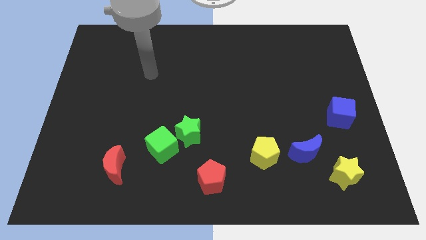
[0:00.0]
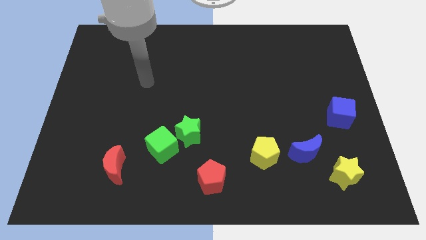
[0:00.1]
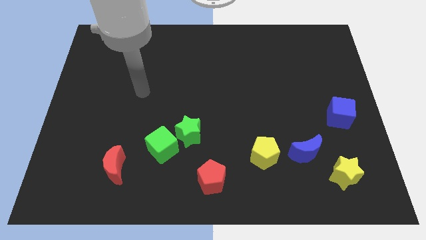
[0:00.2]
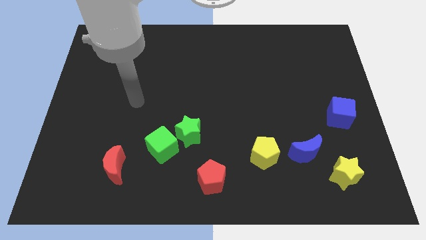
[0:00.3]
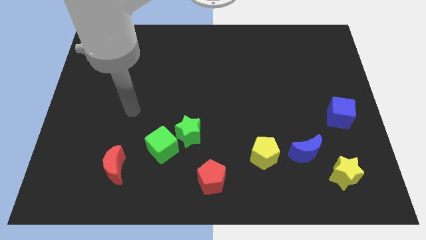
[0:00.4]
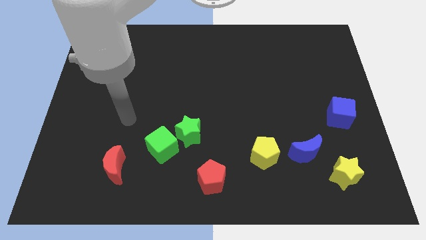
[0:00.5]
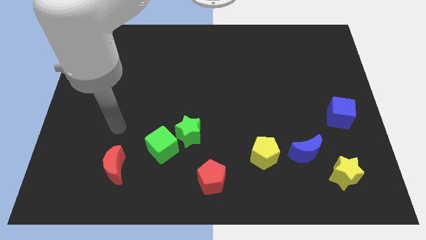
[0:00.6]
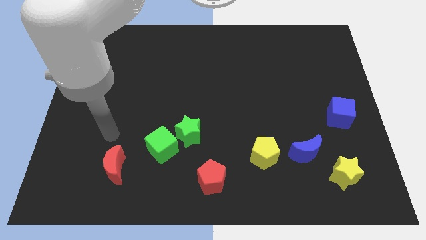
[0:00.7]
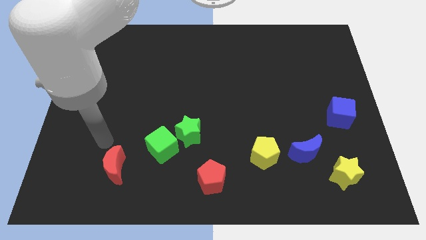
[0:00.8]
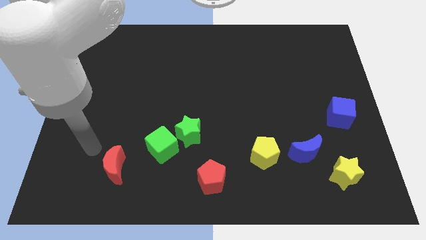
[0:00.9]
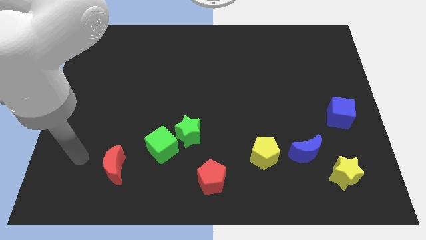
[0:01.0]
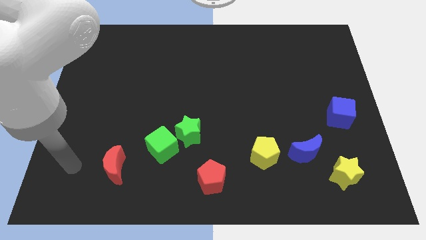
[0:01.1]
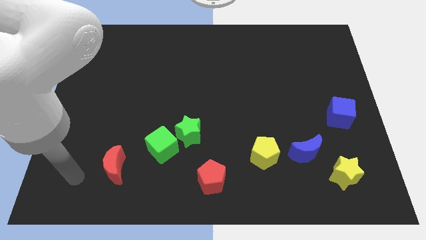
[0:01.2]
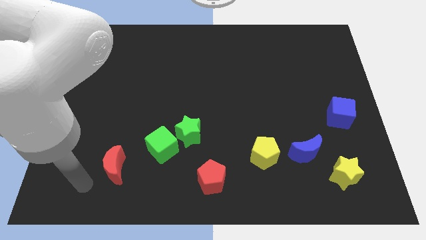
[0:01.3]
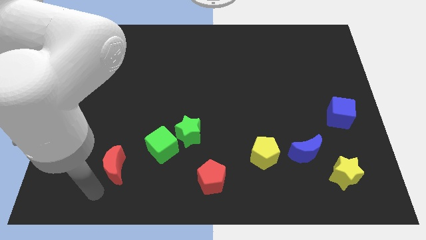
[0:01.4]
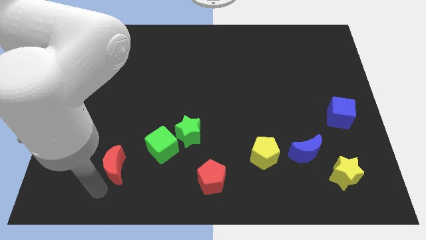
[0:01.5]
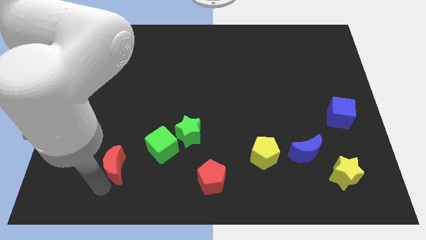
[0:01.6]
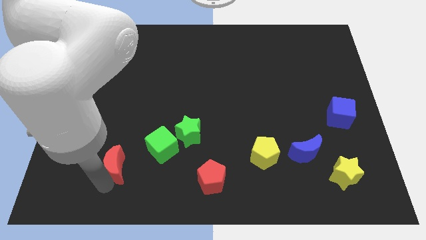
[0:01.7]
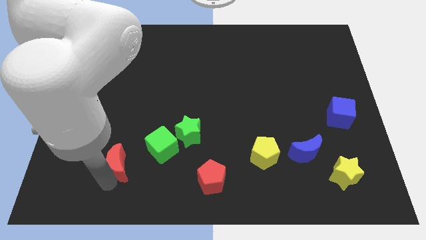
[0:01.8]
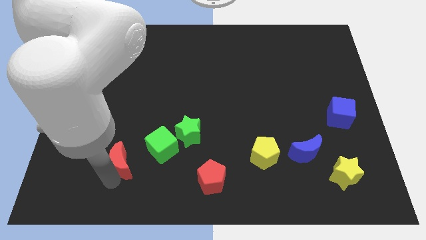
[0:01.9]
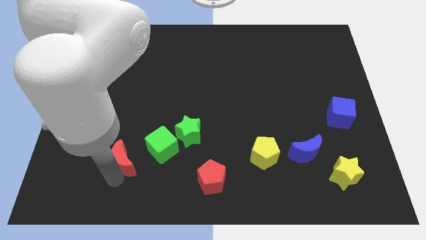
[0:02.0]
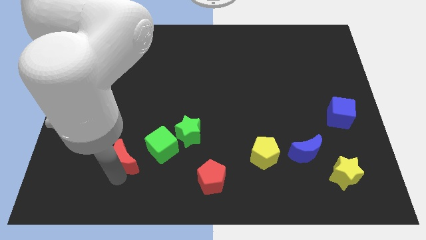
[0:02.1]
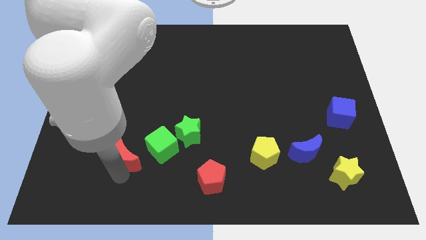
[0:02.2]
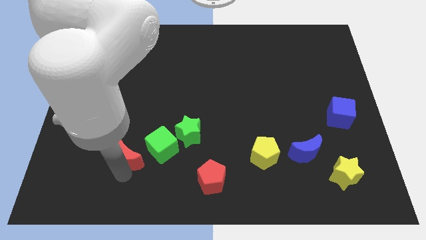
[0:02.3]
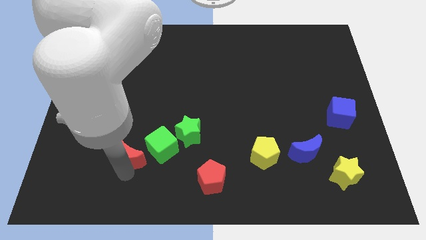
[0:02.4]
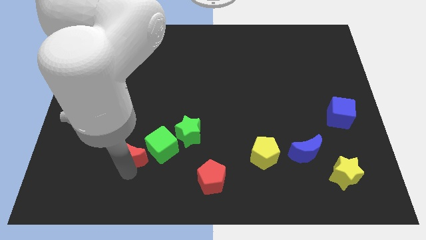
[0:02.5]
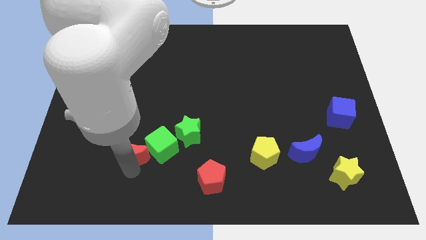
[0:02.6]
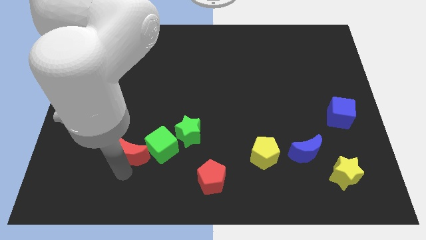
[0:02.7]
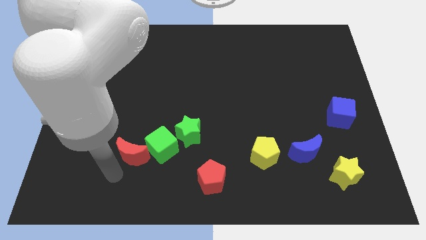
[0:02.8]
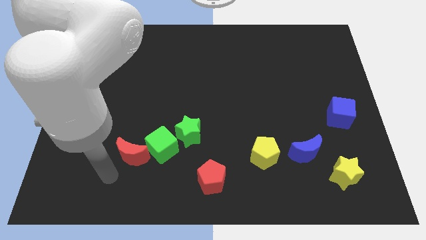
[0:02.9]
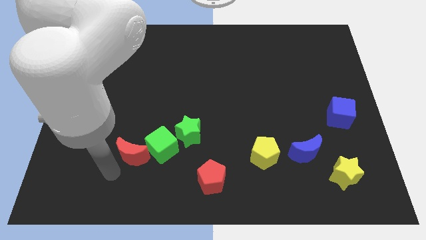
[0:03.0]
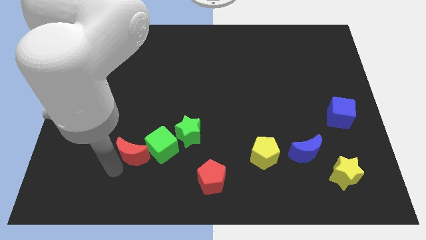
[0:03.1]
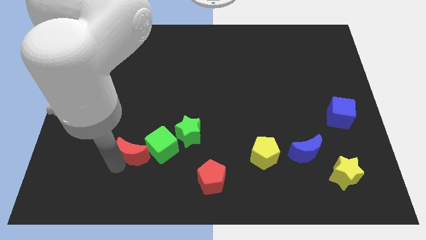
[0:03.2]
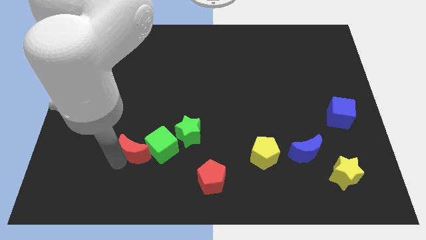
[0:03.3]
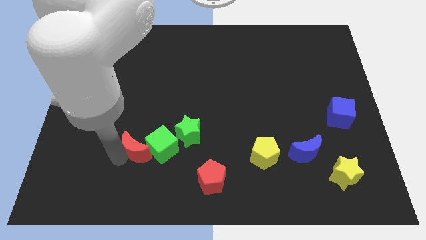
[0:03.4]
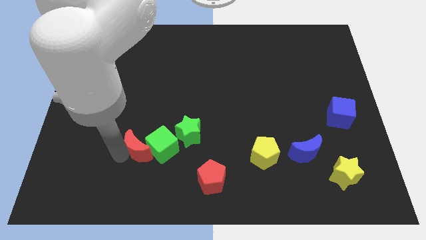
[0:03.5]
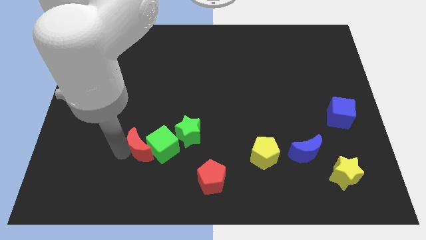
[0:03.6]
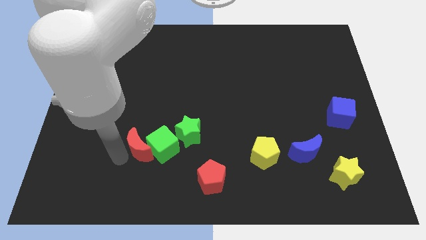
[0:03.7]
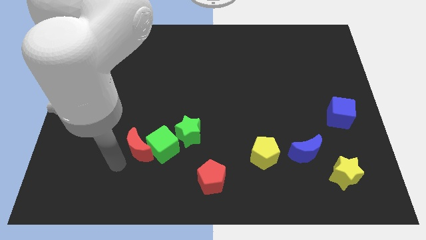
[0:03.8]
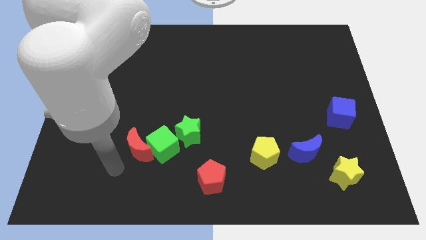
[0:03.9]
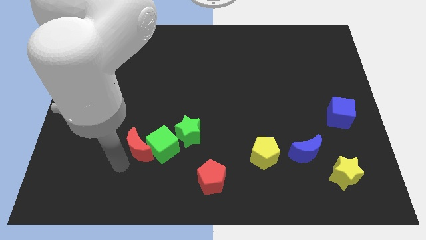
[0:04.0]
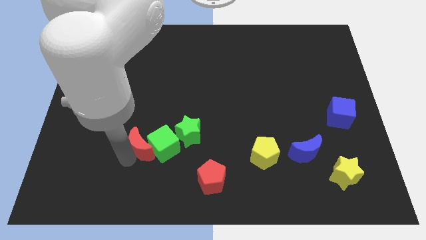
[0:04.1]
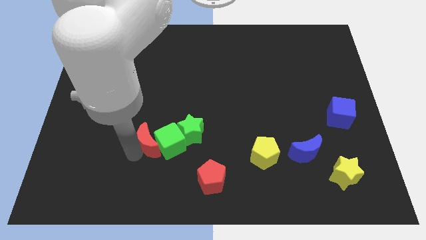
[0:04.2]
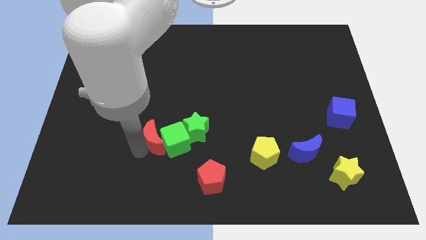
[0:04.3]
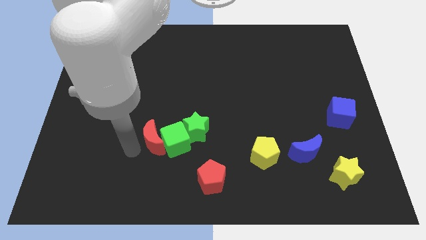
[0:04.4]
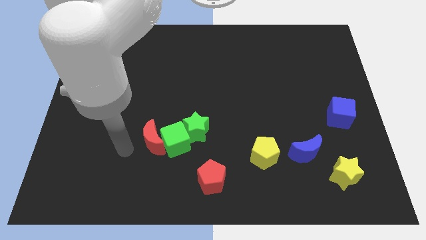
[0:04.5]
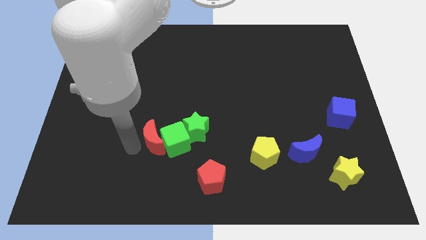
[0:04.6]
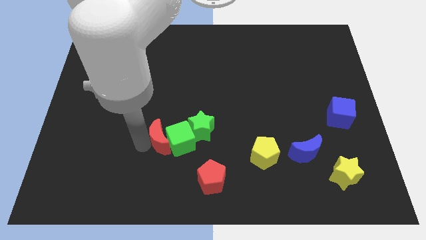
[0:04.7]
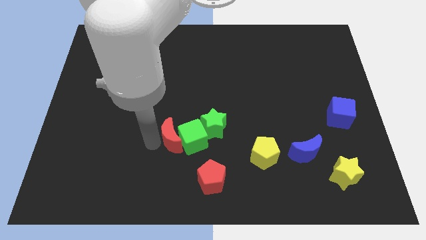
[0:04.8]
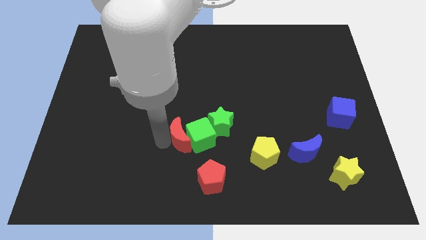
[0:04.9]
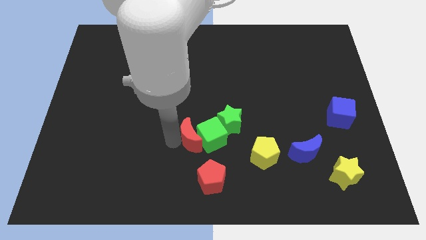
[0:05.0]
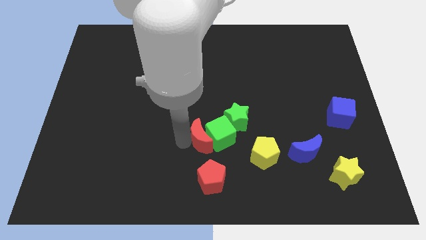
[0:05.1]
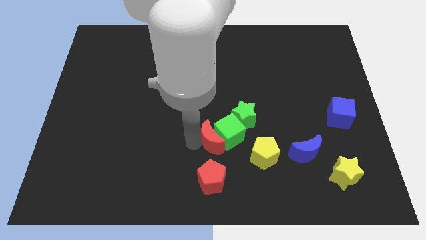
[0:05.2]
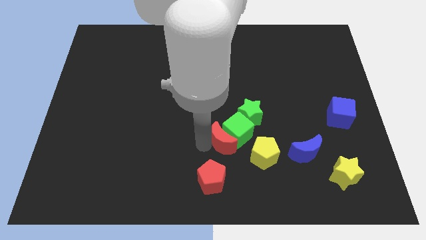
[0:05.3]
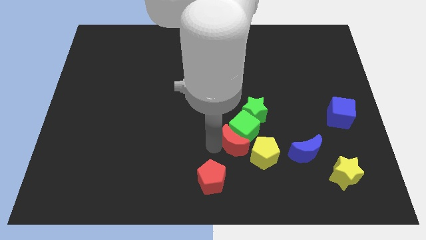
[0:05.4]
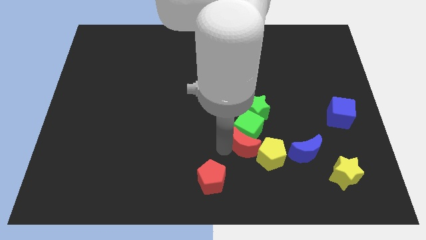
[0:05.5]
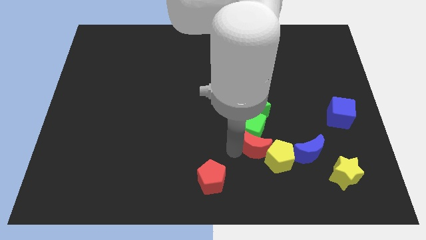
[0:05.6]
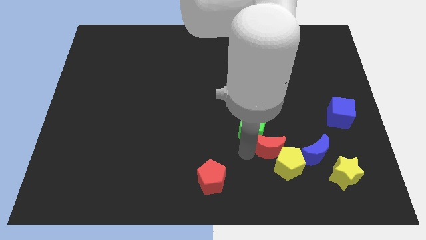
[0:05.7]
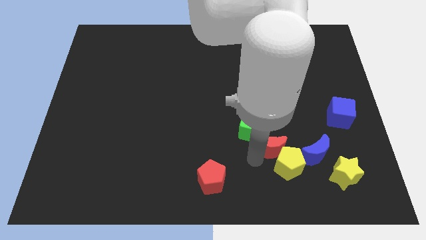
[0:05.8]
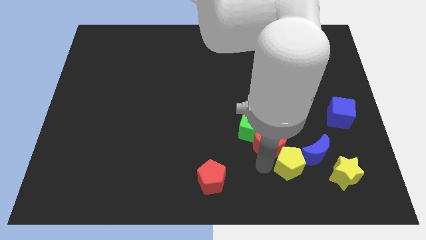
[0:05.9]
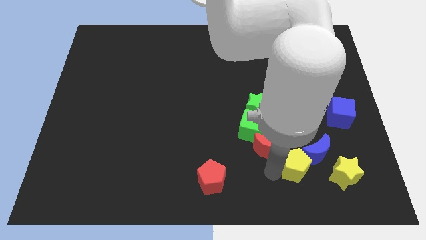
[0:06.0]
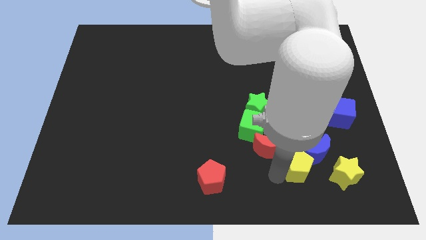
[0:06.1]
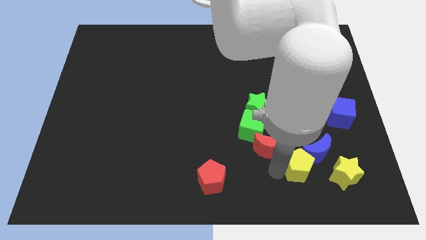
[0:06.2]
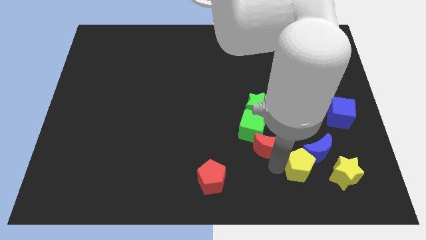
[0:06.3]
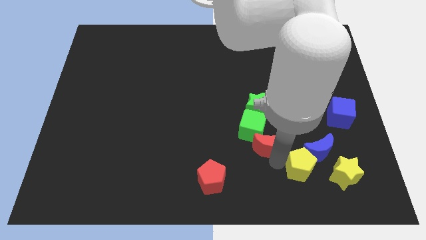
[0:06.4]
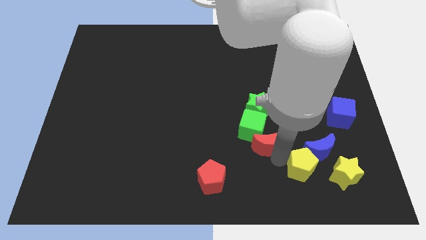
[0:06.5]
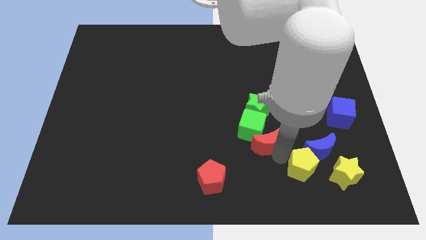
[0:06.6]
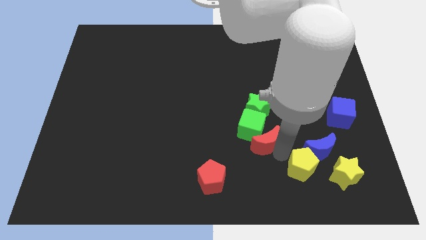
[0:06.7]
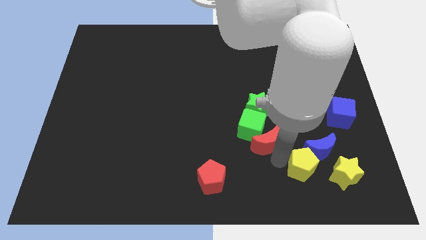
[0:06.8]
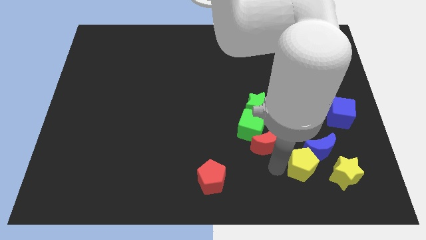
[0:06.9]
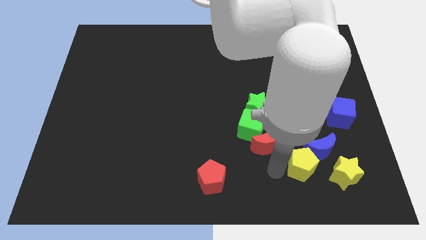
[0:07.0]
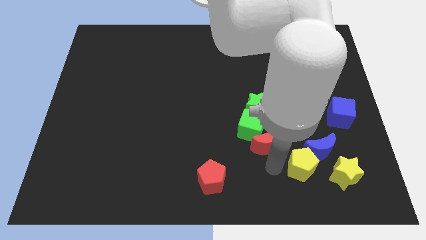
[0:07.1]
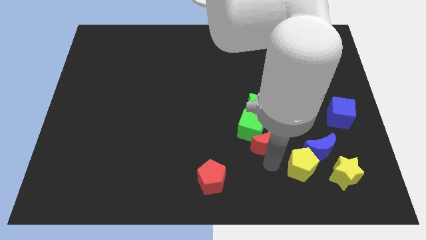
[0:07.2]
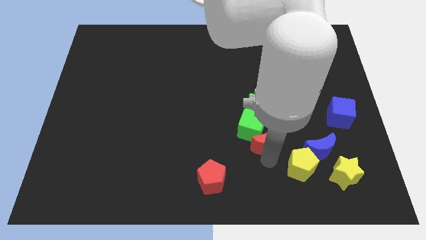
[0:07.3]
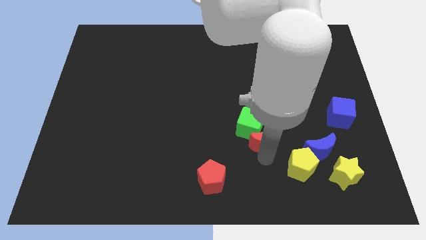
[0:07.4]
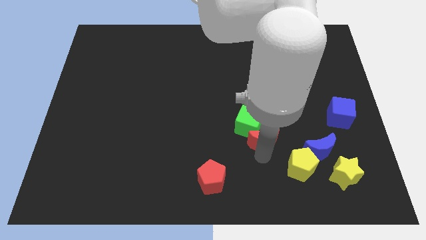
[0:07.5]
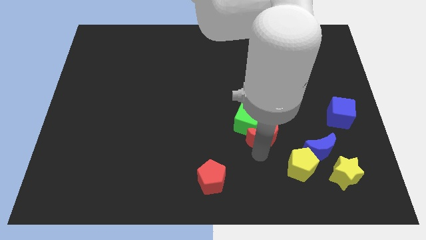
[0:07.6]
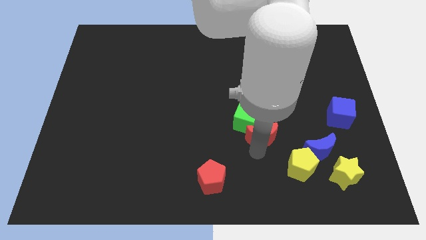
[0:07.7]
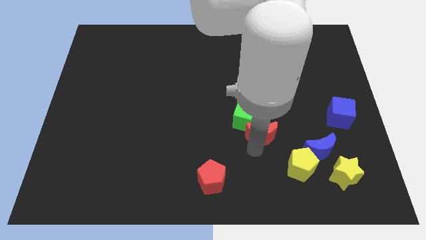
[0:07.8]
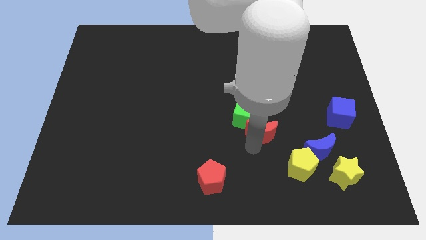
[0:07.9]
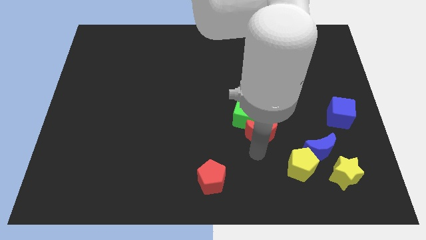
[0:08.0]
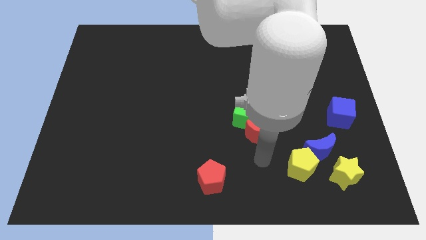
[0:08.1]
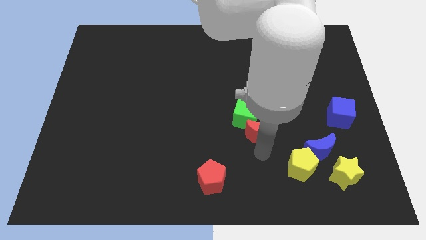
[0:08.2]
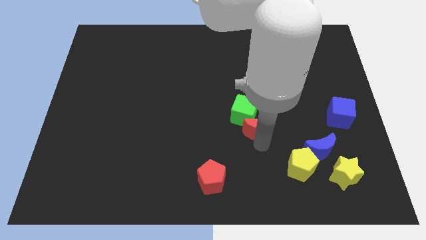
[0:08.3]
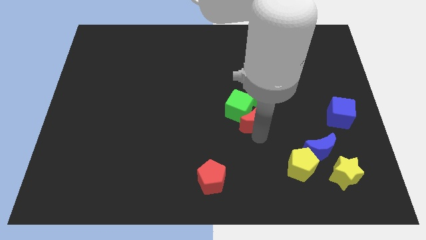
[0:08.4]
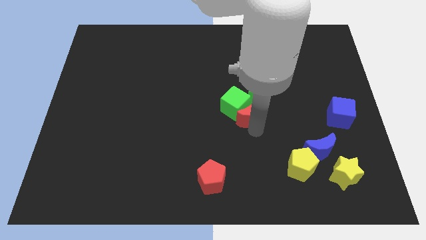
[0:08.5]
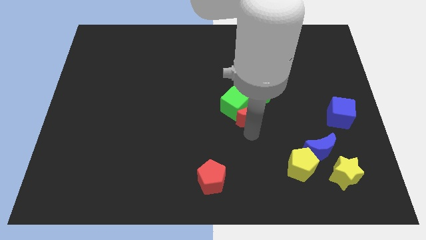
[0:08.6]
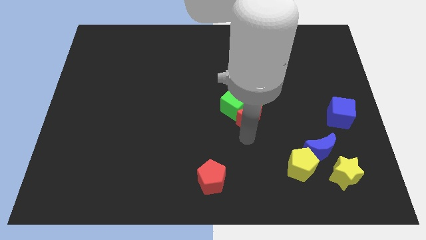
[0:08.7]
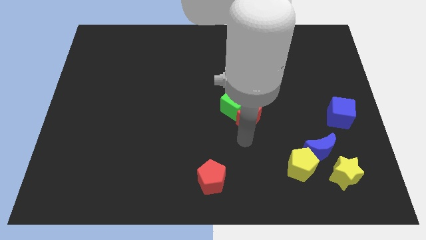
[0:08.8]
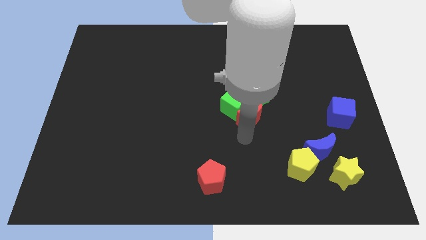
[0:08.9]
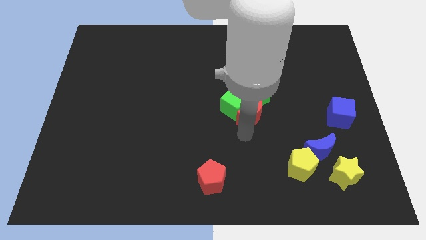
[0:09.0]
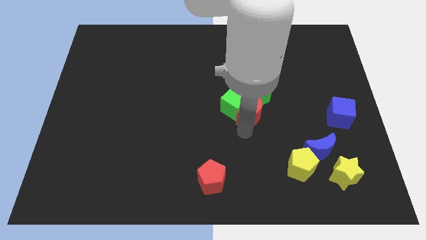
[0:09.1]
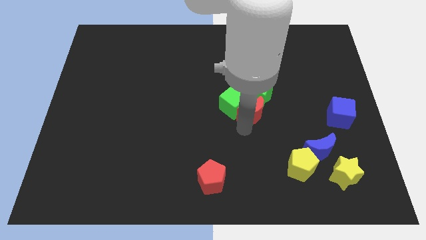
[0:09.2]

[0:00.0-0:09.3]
push the red moon towards the green star
